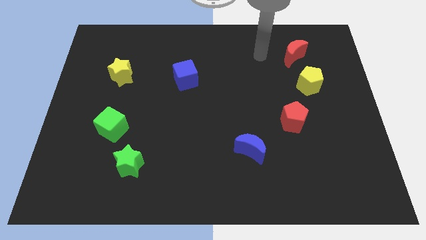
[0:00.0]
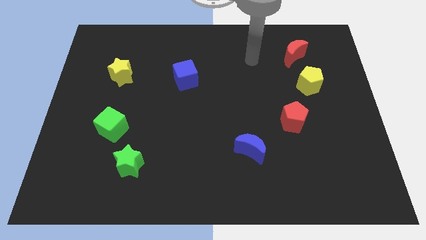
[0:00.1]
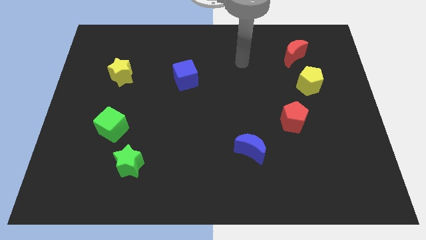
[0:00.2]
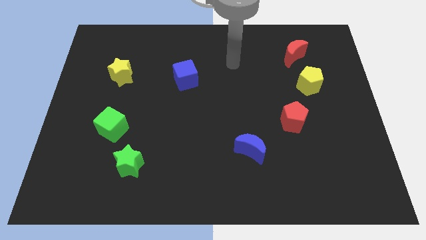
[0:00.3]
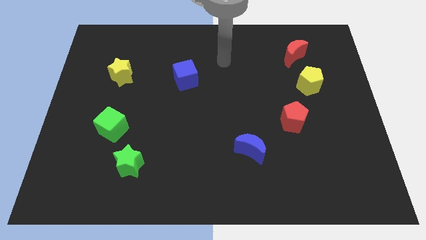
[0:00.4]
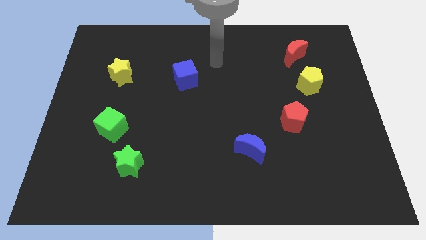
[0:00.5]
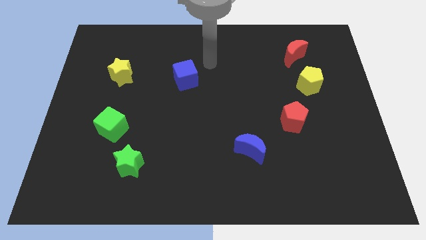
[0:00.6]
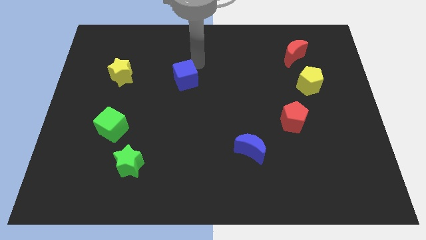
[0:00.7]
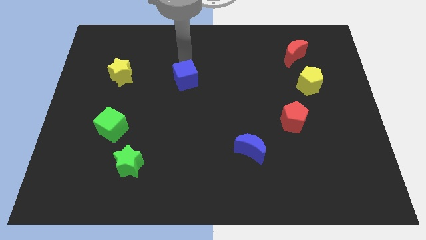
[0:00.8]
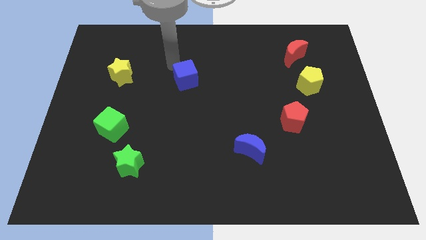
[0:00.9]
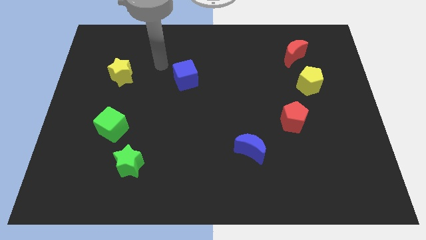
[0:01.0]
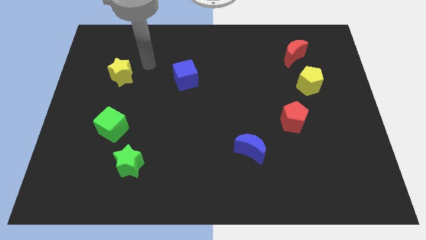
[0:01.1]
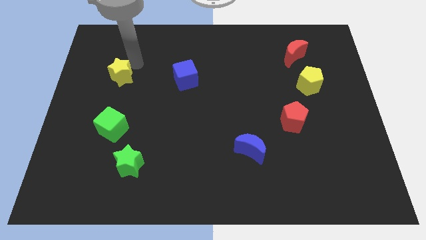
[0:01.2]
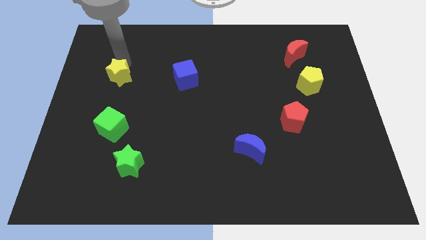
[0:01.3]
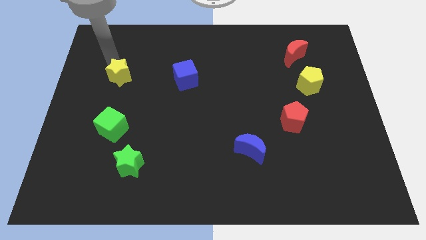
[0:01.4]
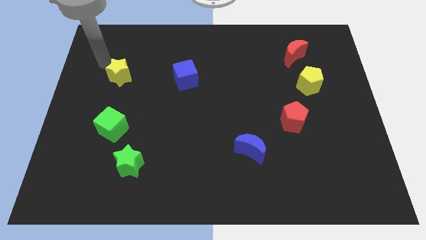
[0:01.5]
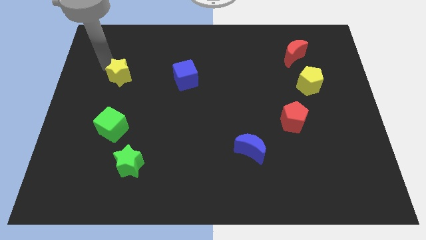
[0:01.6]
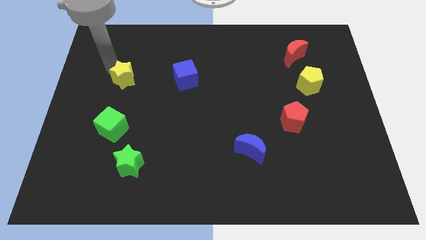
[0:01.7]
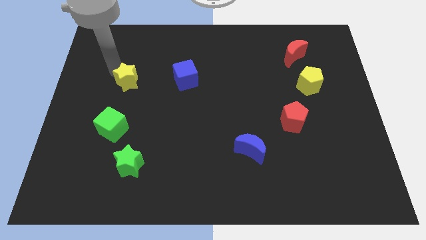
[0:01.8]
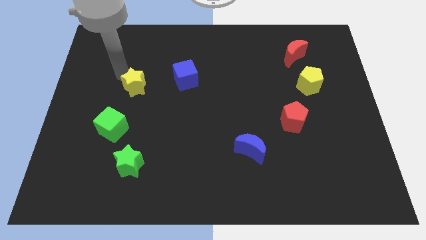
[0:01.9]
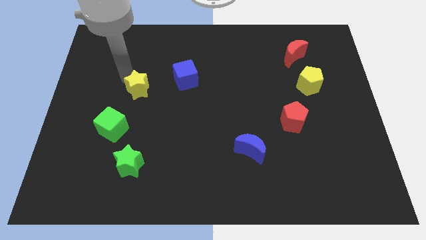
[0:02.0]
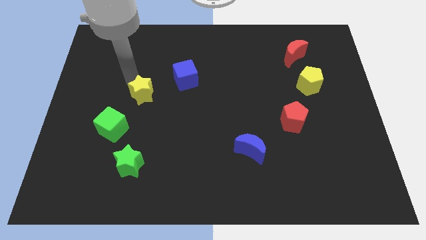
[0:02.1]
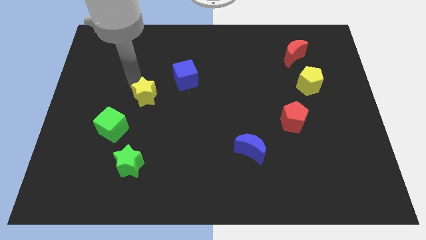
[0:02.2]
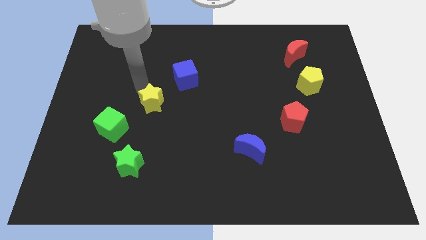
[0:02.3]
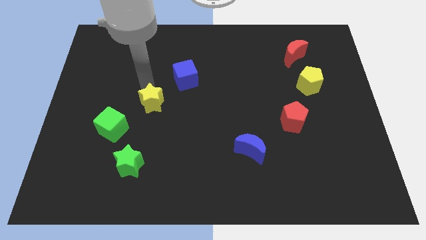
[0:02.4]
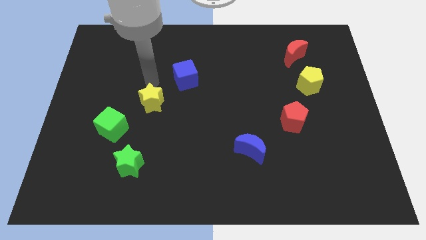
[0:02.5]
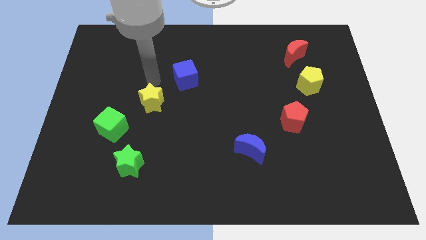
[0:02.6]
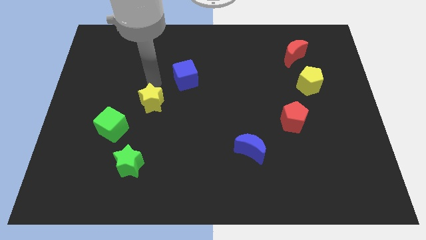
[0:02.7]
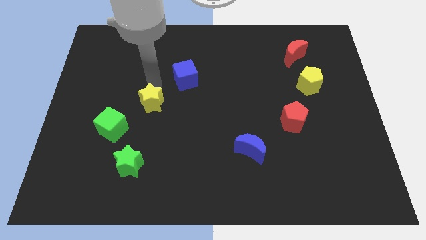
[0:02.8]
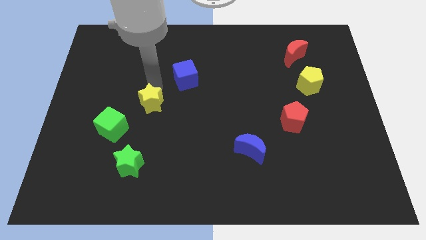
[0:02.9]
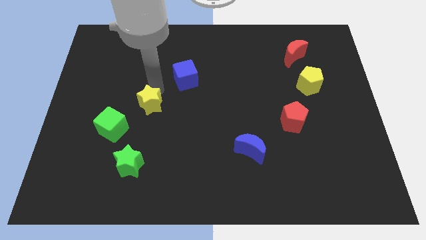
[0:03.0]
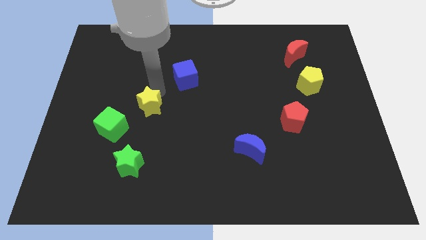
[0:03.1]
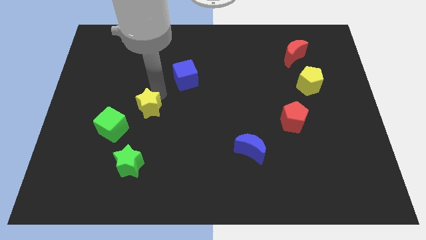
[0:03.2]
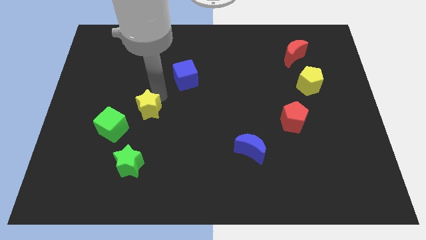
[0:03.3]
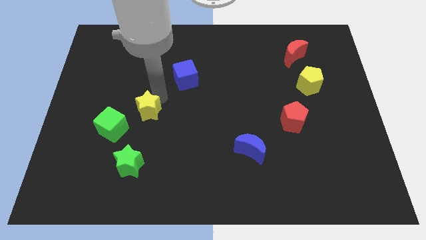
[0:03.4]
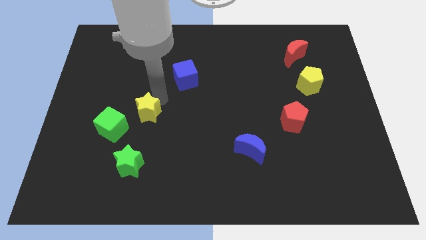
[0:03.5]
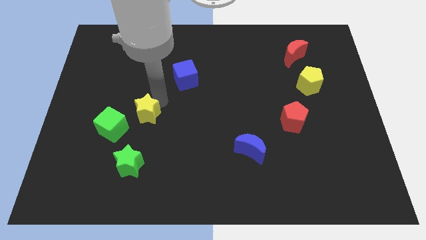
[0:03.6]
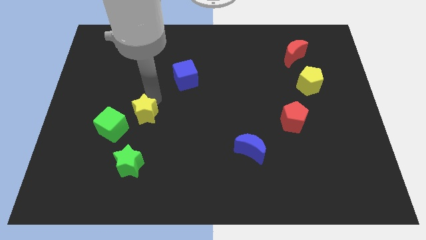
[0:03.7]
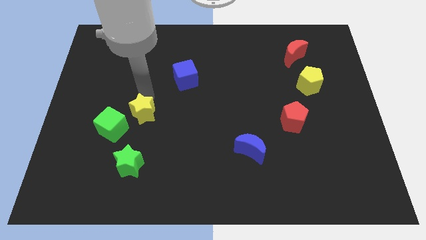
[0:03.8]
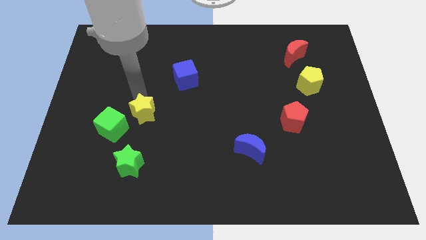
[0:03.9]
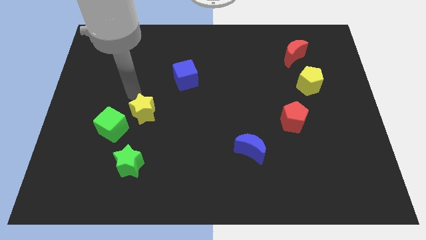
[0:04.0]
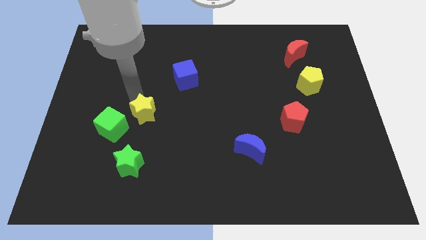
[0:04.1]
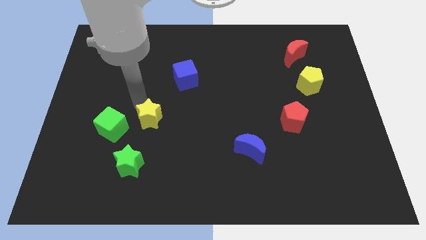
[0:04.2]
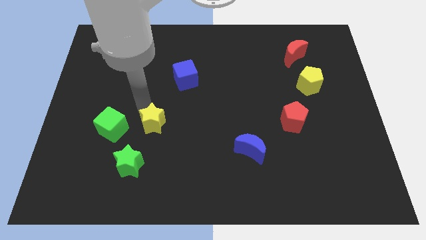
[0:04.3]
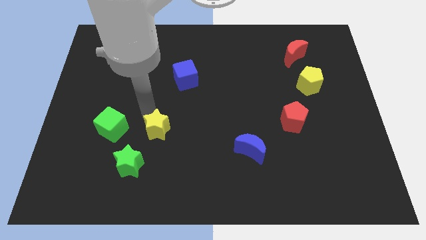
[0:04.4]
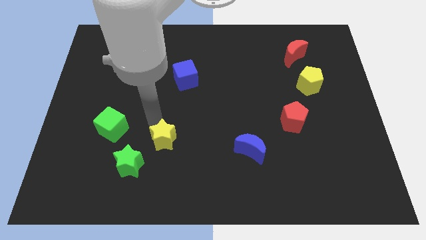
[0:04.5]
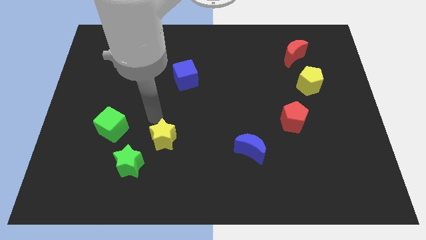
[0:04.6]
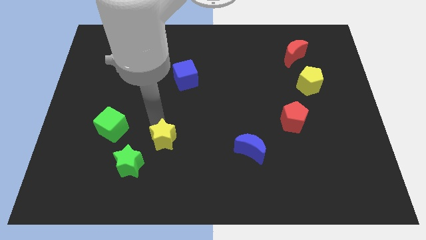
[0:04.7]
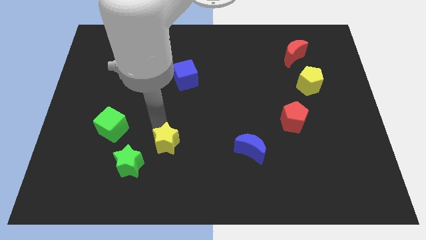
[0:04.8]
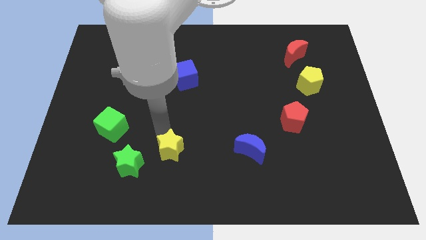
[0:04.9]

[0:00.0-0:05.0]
put the yellow star to the right side of the green star

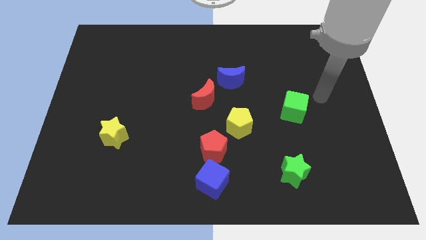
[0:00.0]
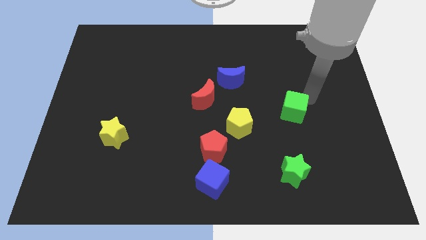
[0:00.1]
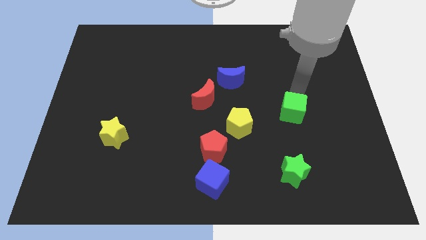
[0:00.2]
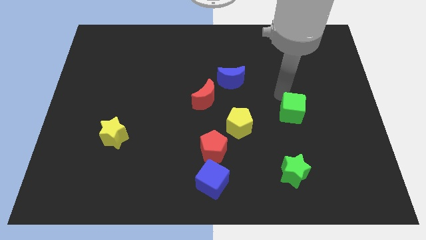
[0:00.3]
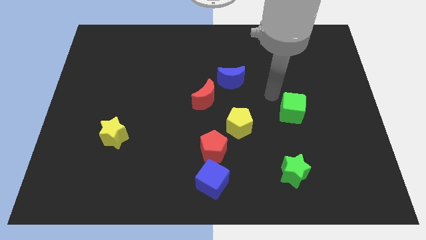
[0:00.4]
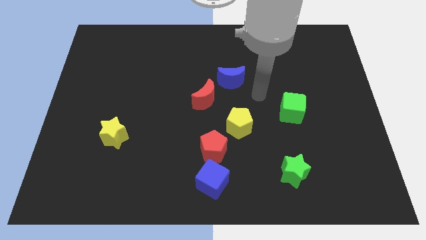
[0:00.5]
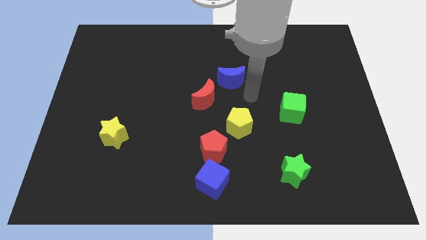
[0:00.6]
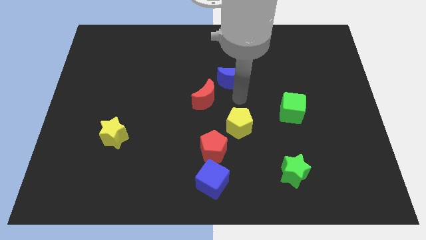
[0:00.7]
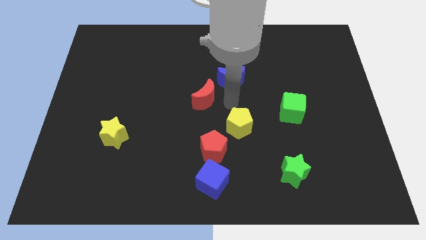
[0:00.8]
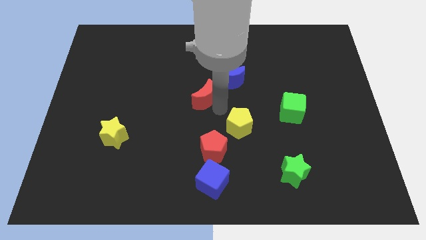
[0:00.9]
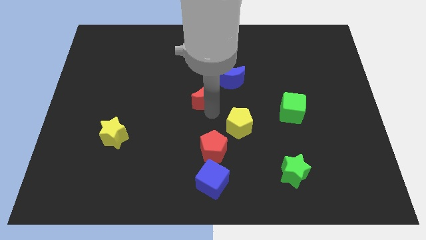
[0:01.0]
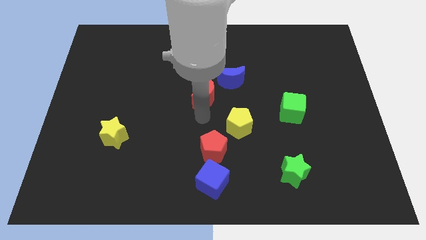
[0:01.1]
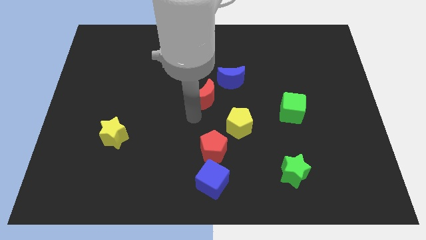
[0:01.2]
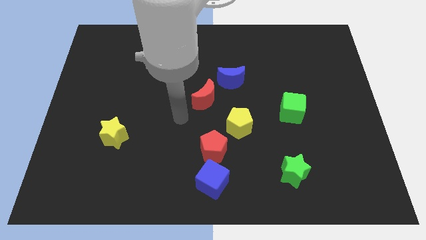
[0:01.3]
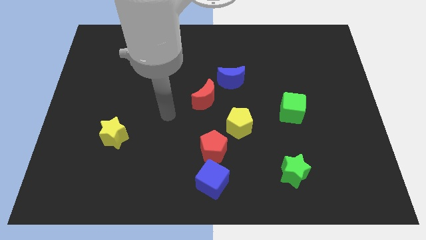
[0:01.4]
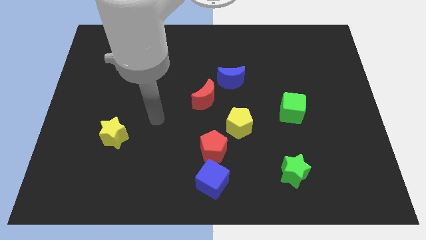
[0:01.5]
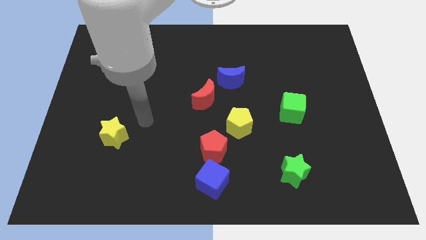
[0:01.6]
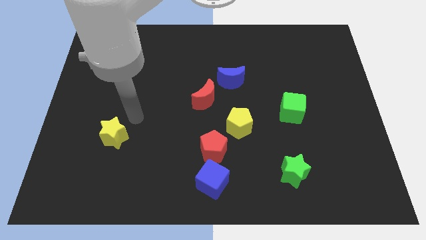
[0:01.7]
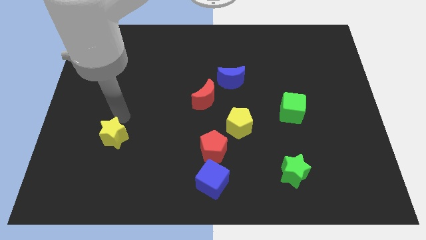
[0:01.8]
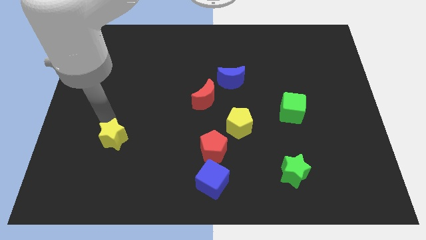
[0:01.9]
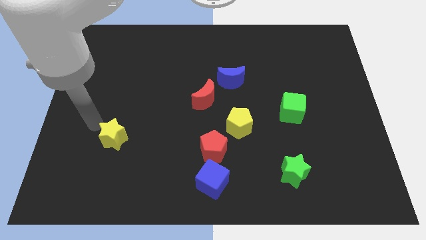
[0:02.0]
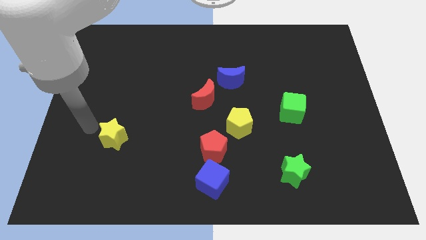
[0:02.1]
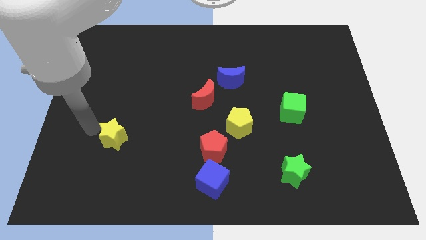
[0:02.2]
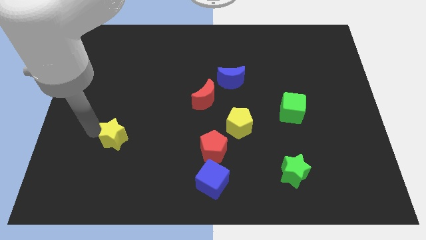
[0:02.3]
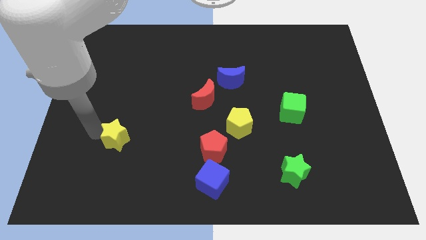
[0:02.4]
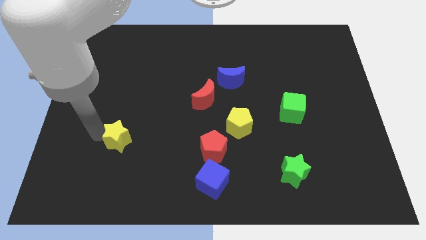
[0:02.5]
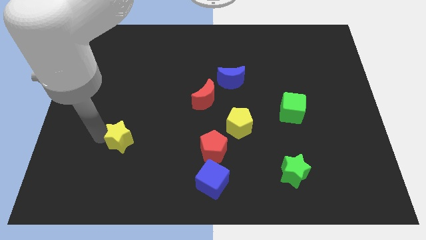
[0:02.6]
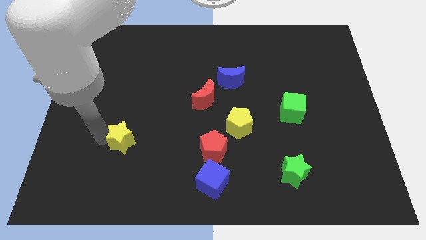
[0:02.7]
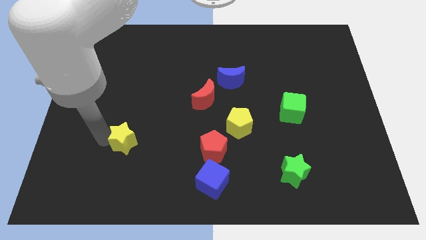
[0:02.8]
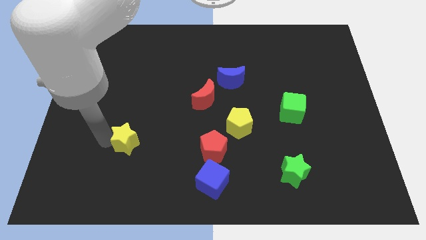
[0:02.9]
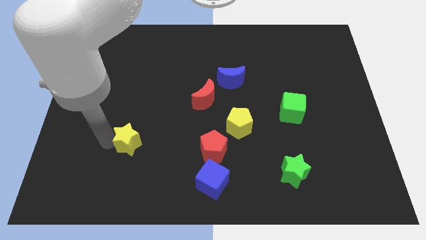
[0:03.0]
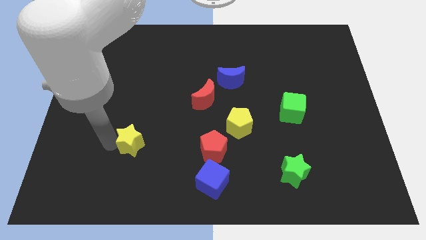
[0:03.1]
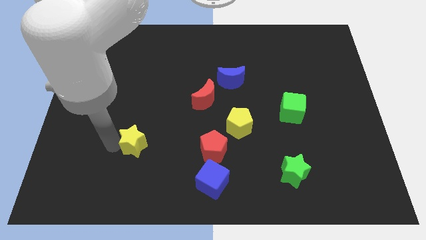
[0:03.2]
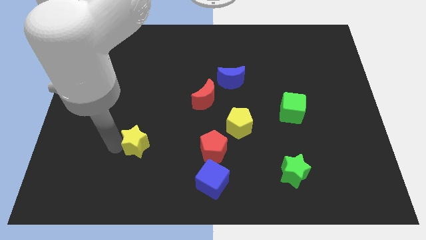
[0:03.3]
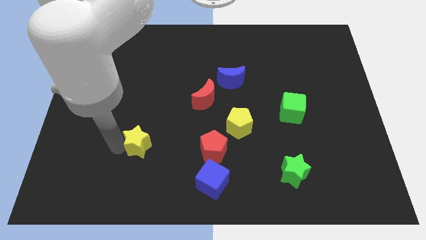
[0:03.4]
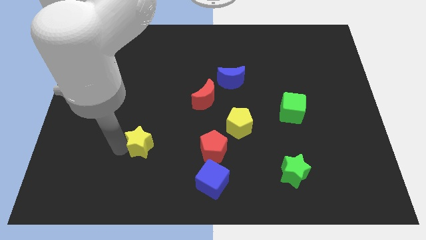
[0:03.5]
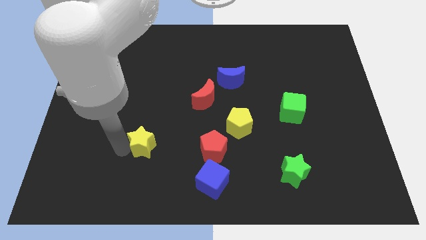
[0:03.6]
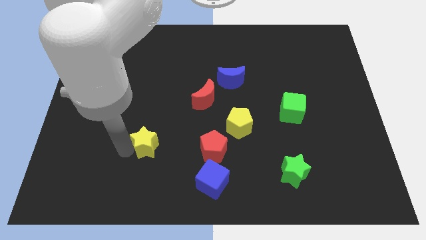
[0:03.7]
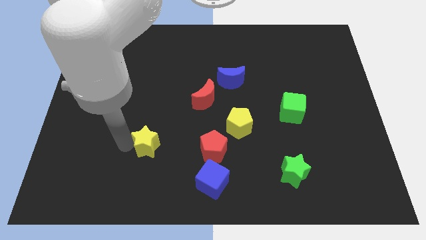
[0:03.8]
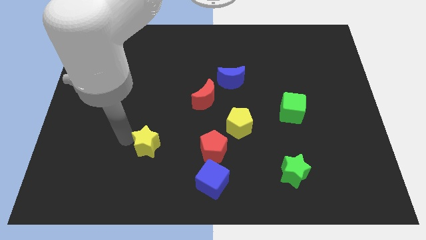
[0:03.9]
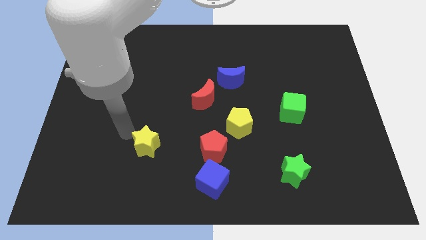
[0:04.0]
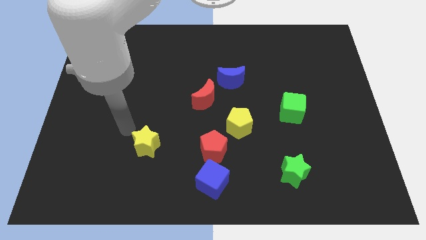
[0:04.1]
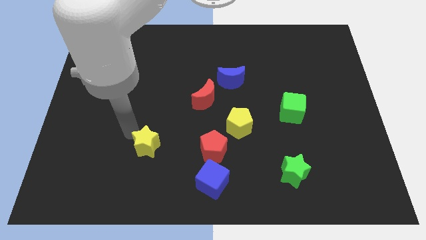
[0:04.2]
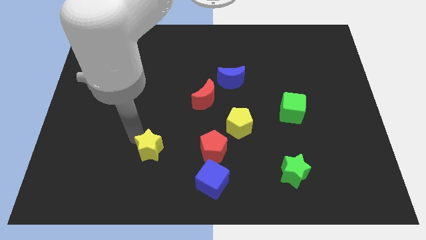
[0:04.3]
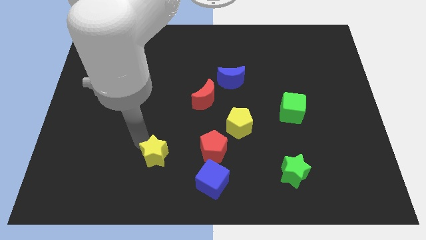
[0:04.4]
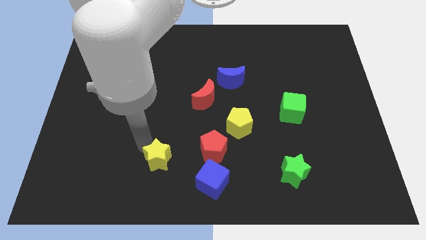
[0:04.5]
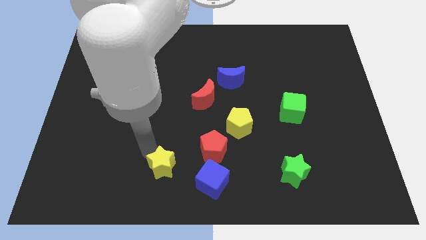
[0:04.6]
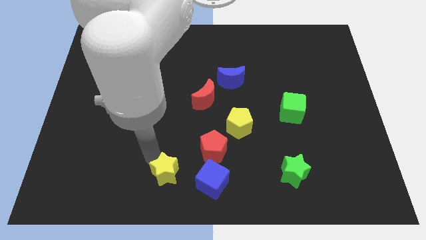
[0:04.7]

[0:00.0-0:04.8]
slide the yellow star diagonally down and to the left of the red pentagon
